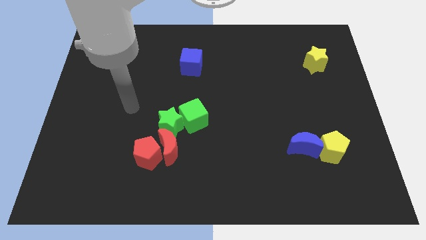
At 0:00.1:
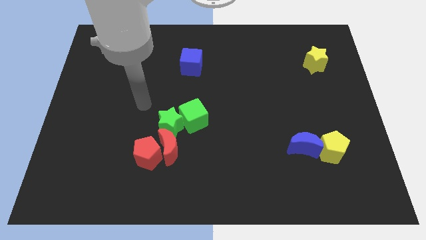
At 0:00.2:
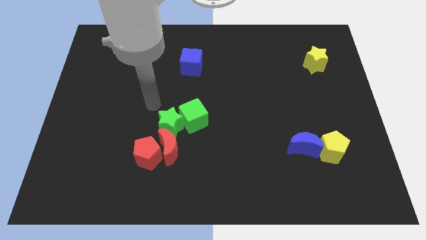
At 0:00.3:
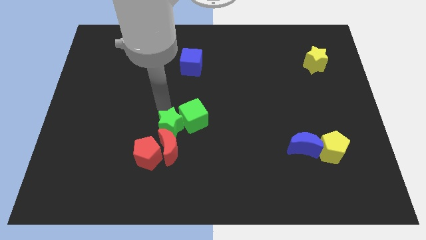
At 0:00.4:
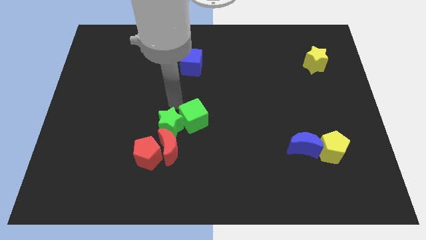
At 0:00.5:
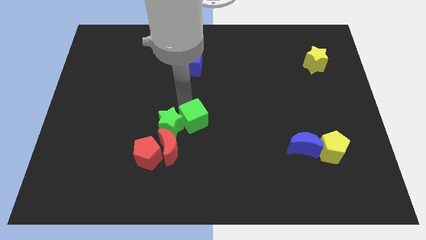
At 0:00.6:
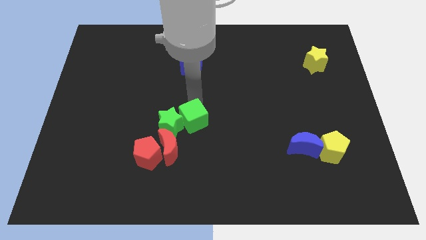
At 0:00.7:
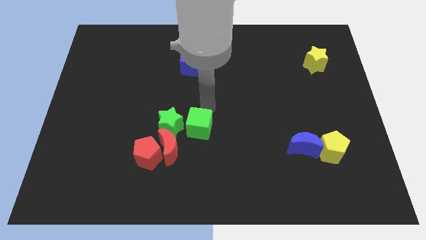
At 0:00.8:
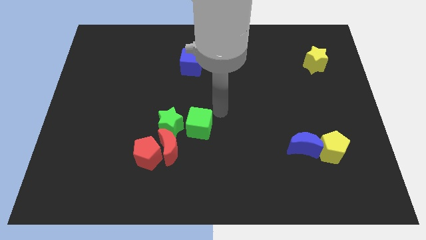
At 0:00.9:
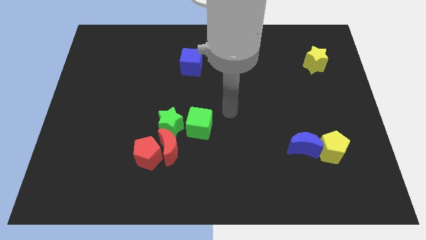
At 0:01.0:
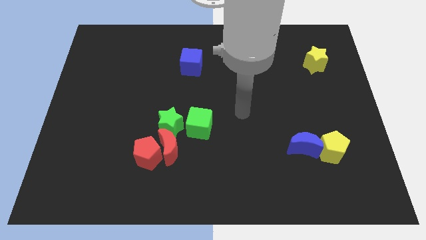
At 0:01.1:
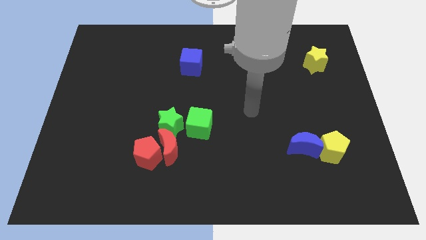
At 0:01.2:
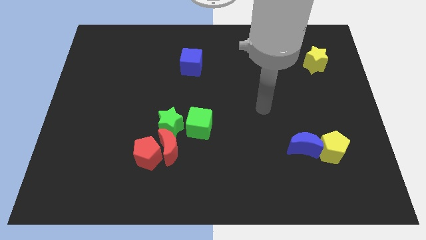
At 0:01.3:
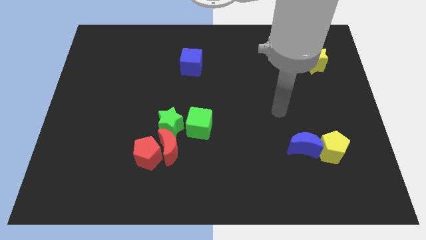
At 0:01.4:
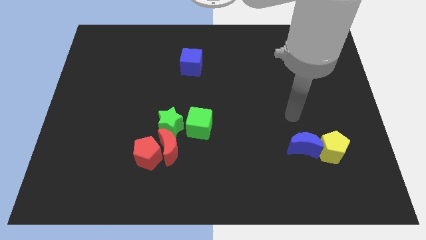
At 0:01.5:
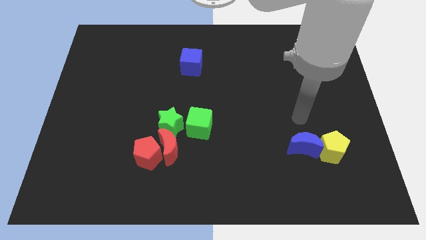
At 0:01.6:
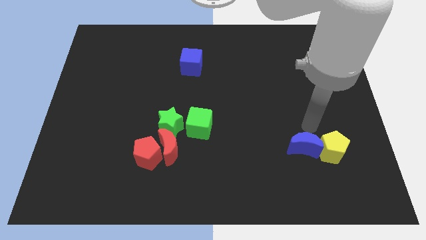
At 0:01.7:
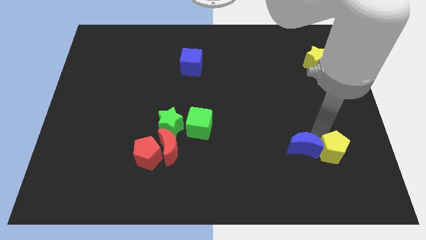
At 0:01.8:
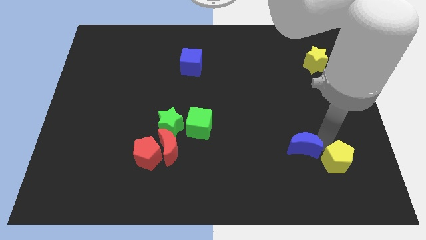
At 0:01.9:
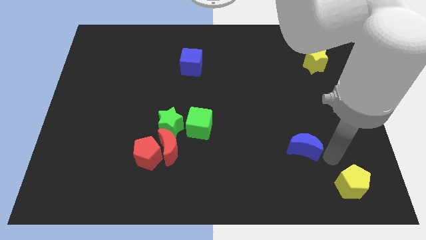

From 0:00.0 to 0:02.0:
separate the blue moon from the yellow pentagon

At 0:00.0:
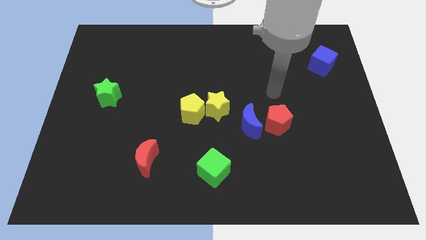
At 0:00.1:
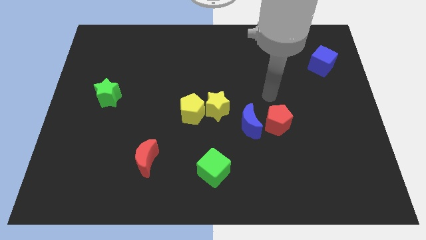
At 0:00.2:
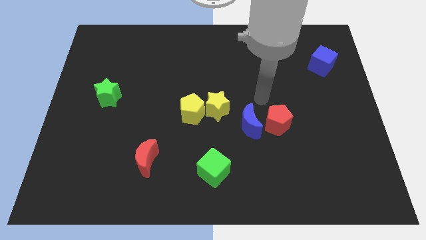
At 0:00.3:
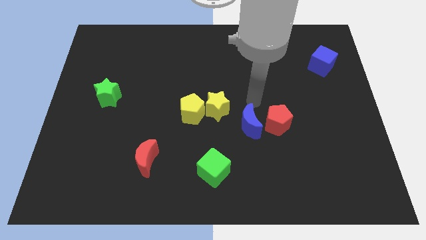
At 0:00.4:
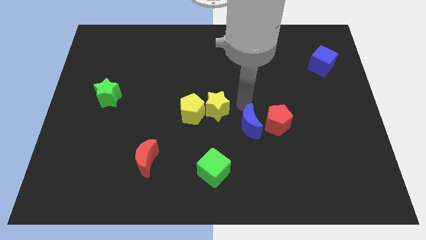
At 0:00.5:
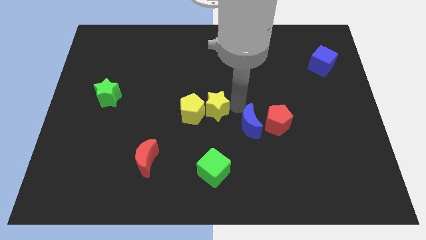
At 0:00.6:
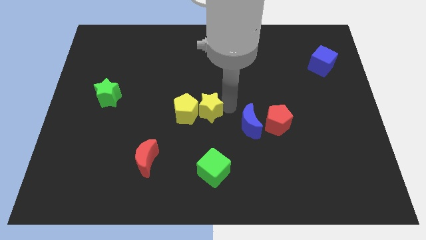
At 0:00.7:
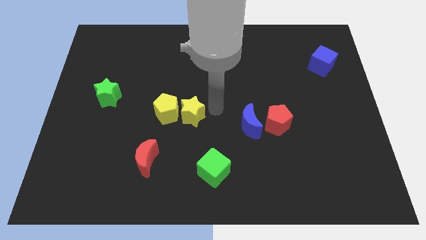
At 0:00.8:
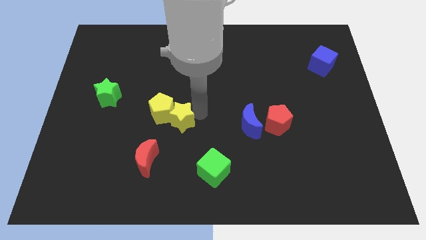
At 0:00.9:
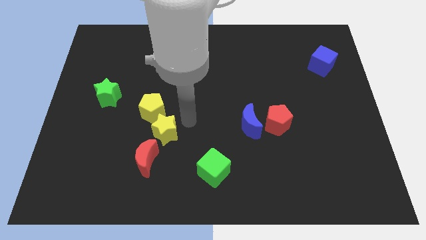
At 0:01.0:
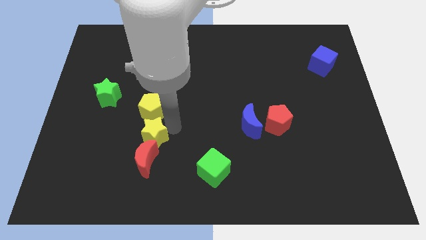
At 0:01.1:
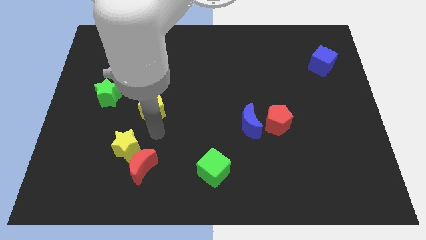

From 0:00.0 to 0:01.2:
separate the yellow pentagon from the yellow star

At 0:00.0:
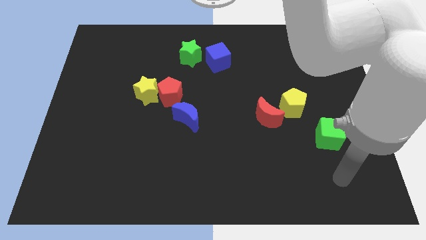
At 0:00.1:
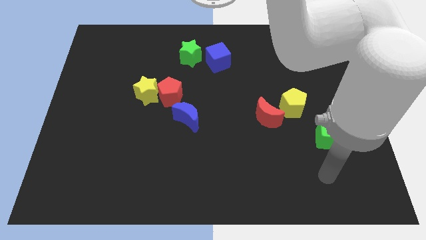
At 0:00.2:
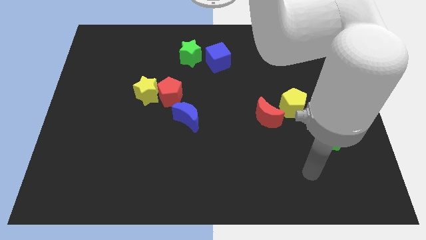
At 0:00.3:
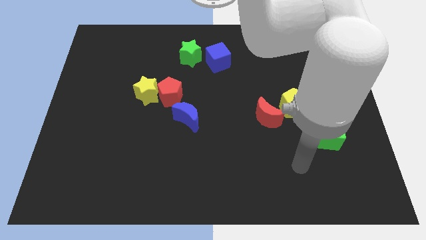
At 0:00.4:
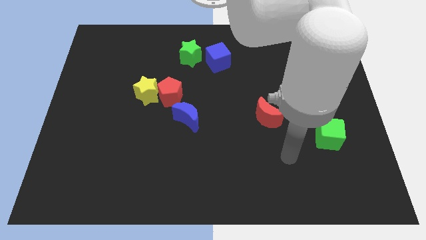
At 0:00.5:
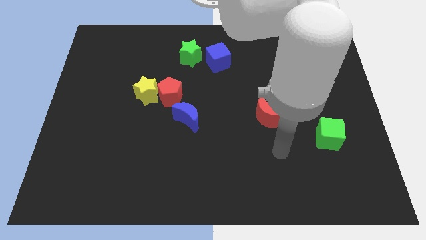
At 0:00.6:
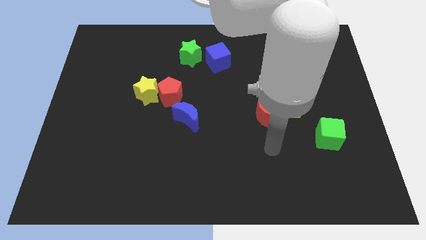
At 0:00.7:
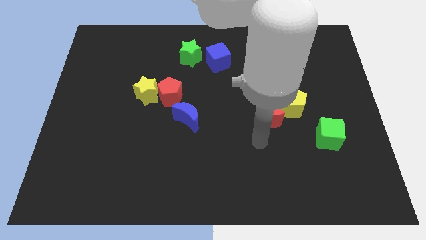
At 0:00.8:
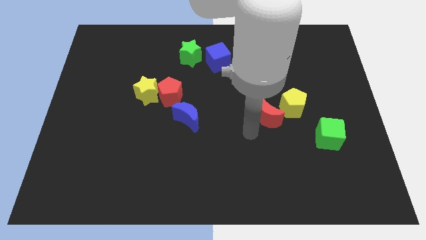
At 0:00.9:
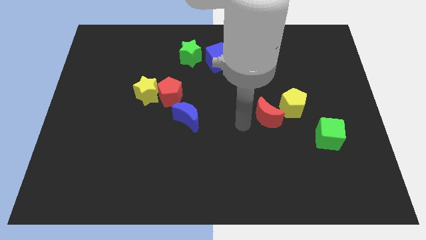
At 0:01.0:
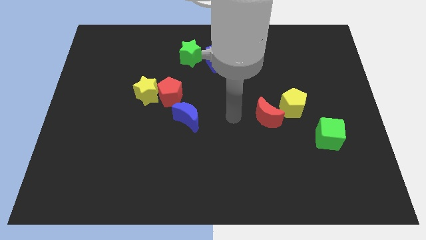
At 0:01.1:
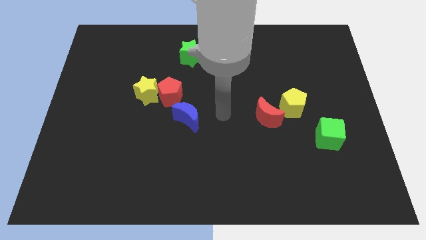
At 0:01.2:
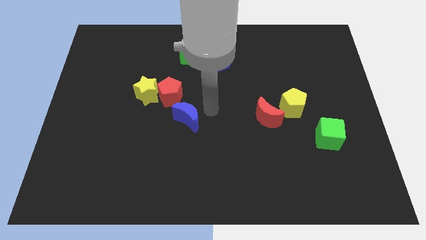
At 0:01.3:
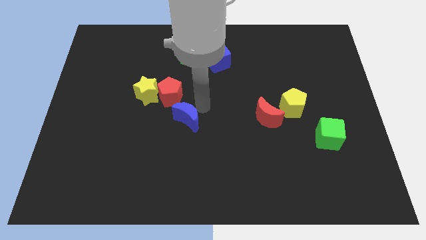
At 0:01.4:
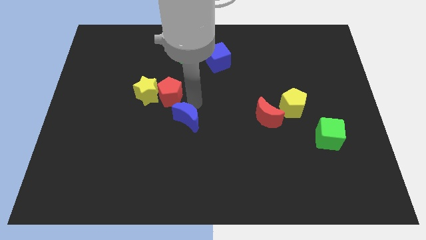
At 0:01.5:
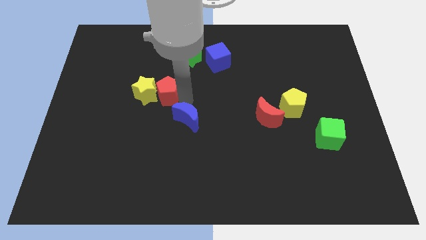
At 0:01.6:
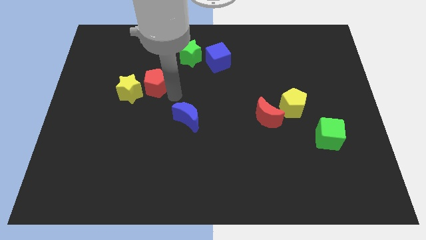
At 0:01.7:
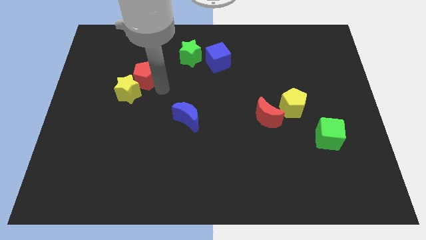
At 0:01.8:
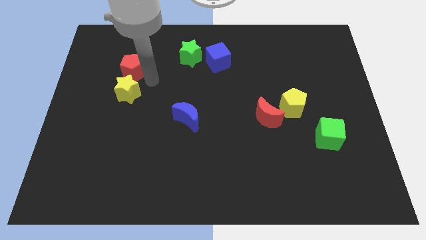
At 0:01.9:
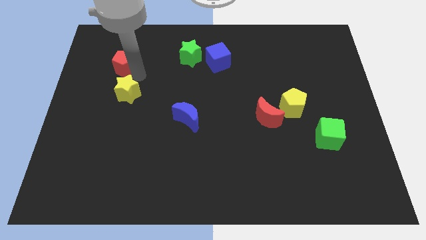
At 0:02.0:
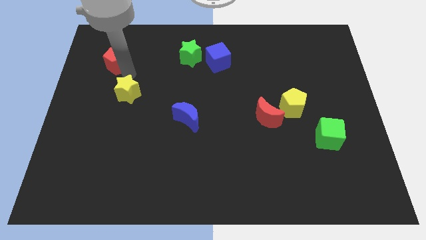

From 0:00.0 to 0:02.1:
separate the yellow star from the red pentagon

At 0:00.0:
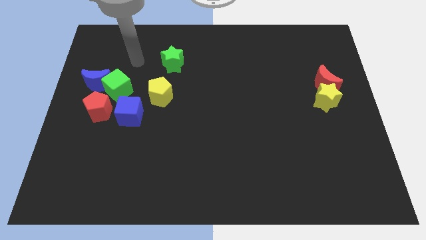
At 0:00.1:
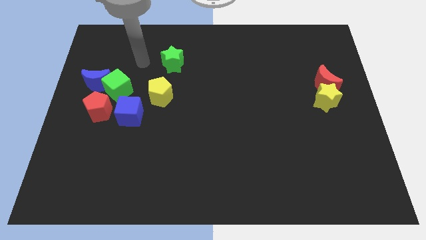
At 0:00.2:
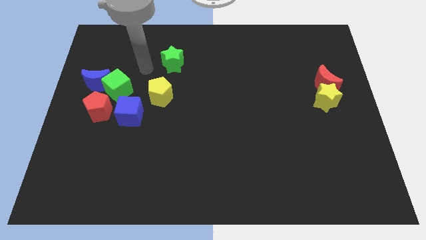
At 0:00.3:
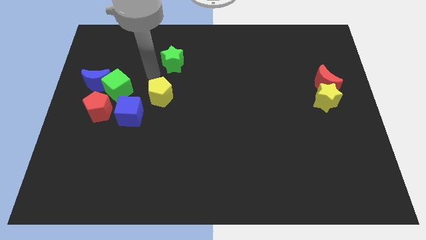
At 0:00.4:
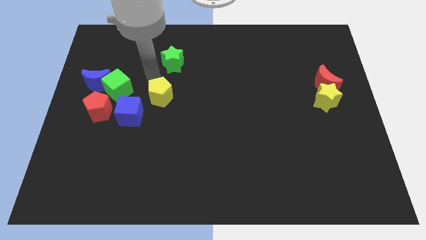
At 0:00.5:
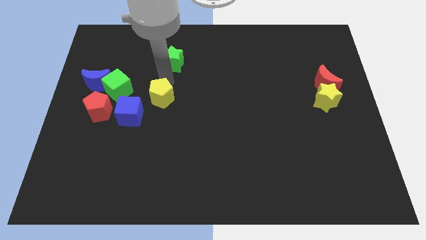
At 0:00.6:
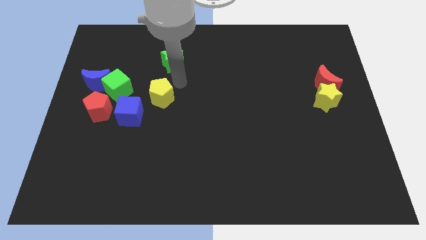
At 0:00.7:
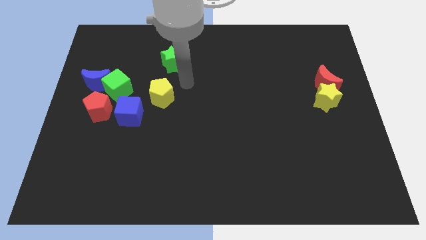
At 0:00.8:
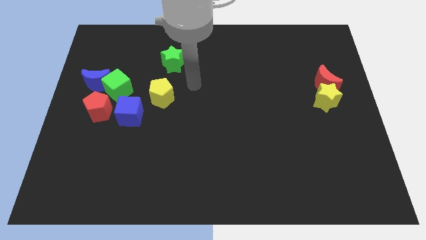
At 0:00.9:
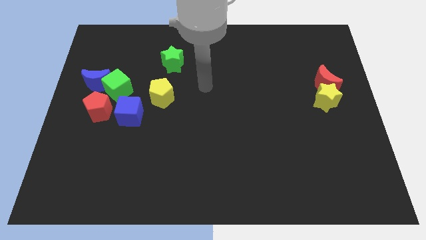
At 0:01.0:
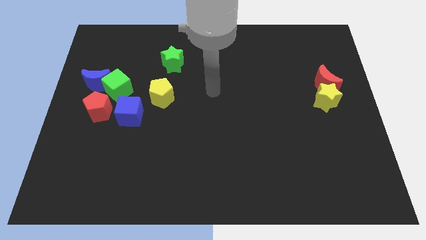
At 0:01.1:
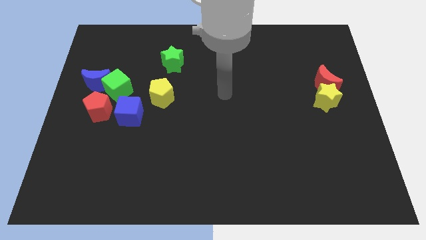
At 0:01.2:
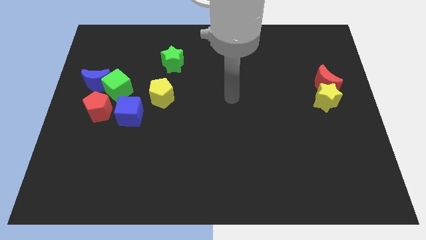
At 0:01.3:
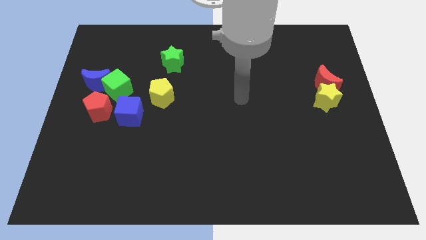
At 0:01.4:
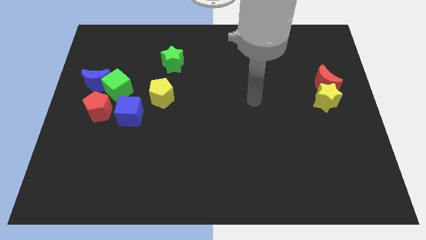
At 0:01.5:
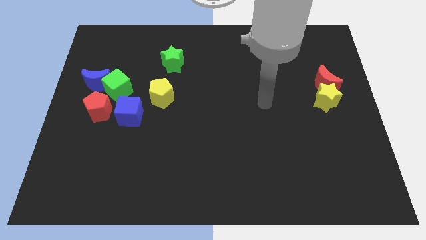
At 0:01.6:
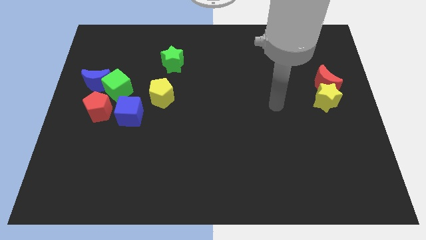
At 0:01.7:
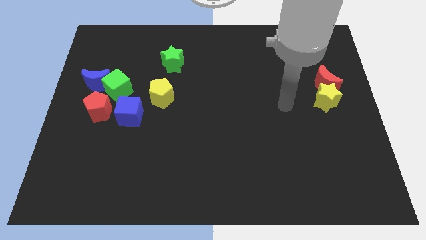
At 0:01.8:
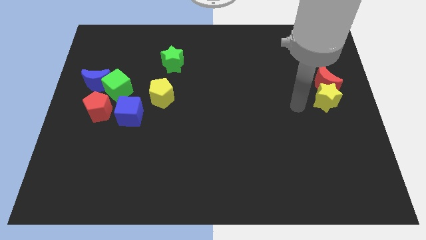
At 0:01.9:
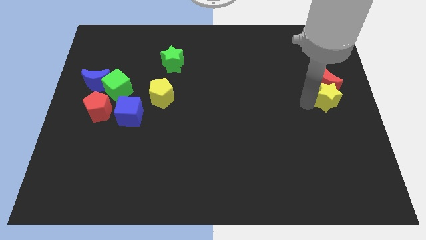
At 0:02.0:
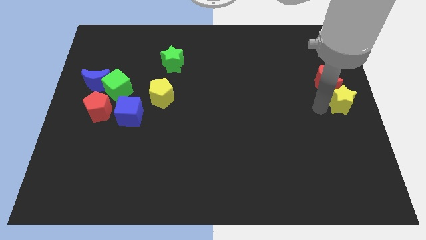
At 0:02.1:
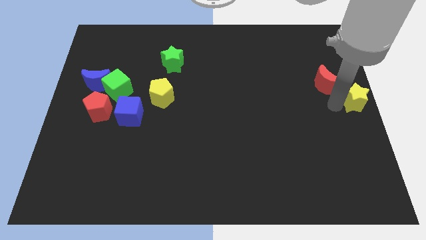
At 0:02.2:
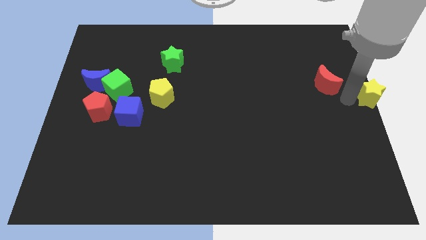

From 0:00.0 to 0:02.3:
move the red moon away from the yellow star

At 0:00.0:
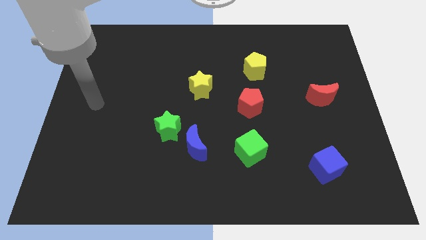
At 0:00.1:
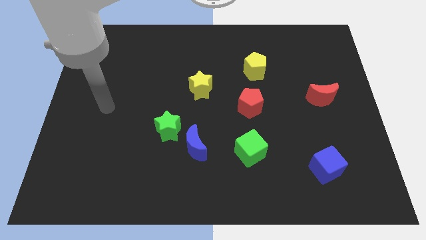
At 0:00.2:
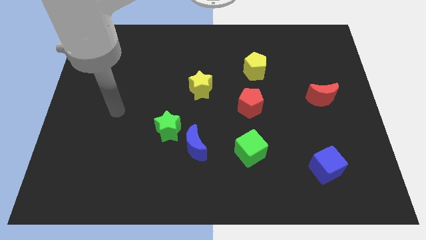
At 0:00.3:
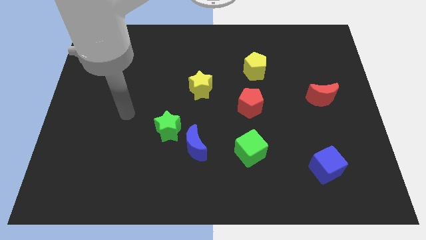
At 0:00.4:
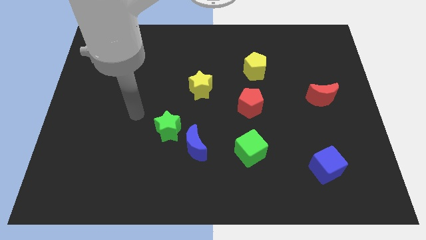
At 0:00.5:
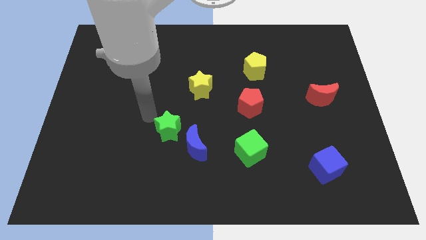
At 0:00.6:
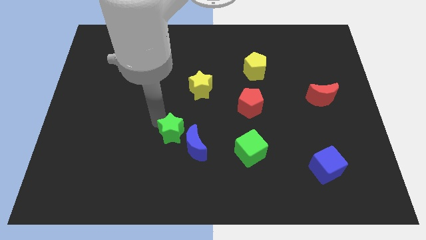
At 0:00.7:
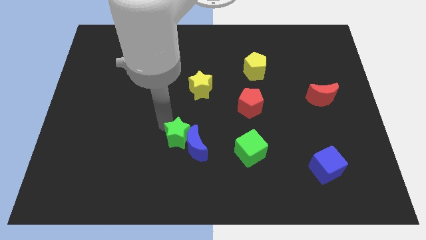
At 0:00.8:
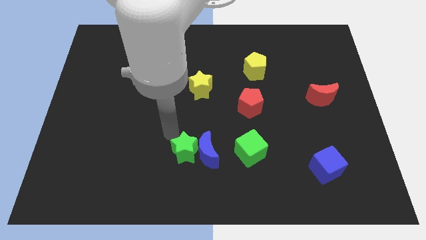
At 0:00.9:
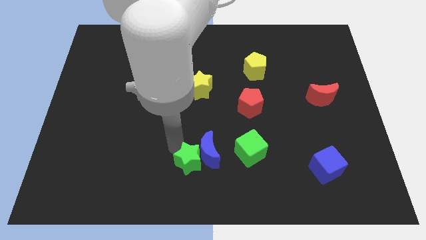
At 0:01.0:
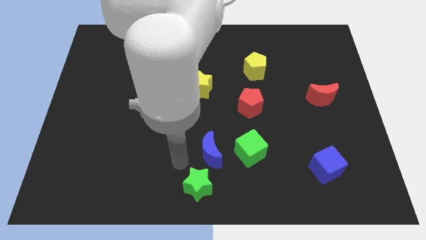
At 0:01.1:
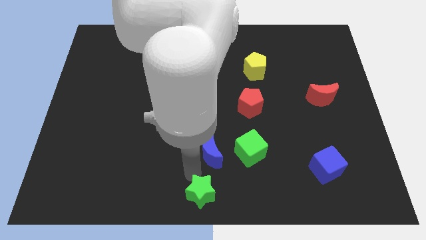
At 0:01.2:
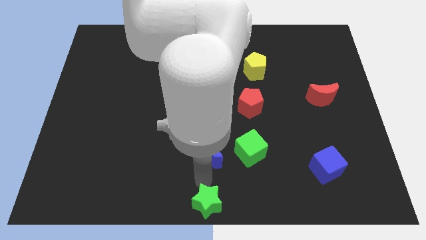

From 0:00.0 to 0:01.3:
move the blue moon away from the green star

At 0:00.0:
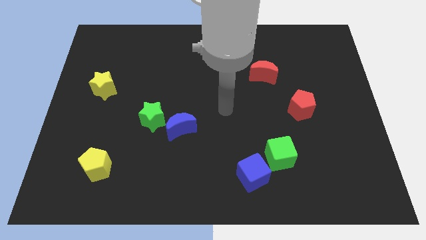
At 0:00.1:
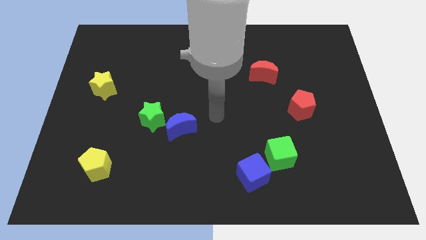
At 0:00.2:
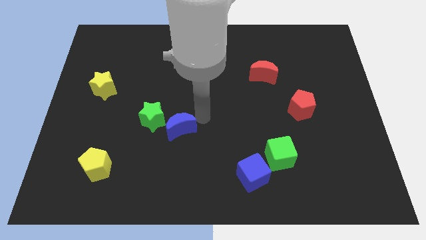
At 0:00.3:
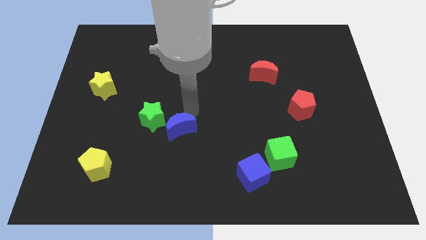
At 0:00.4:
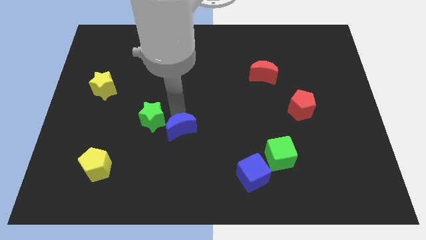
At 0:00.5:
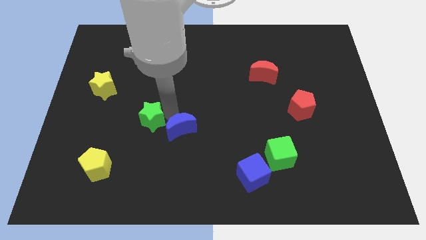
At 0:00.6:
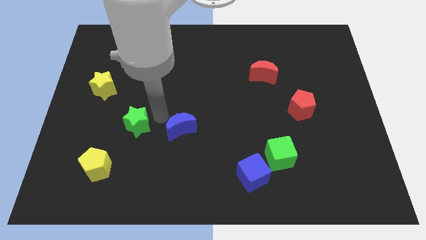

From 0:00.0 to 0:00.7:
separate the blue moon from the green star
